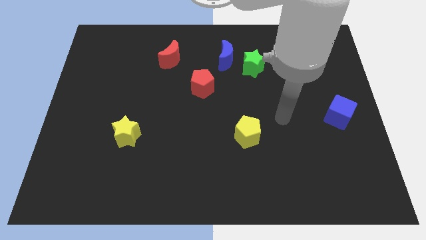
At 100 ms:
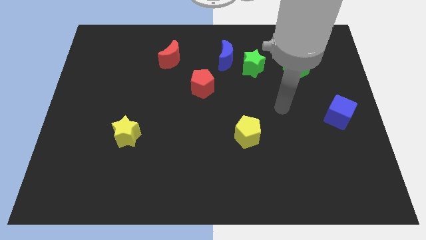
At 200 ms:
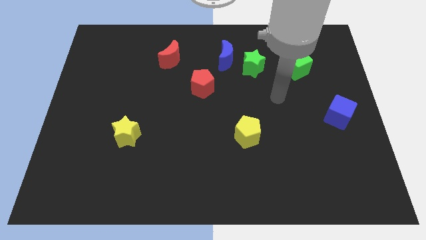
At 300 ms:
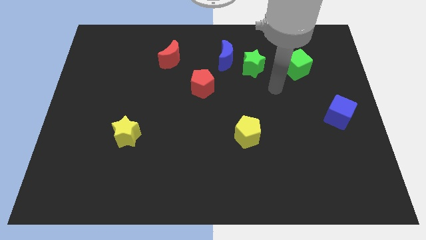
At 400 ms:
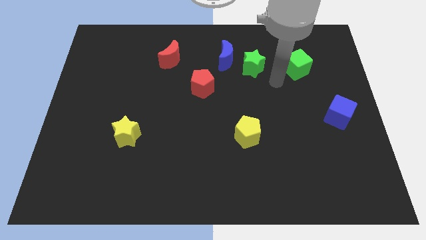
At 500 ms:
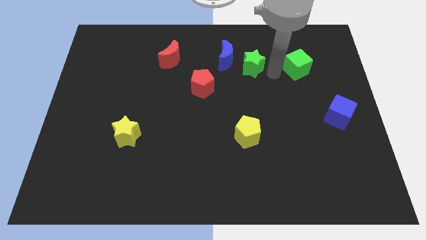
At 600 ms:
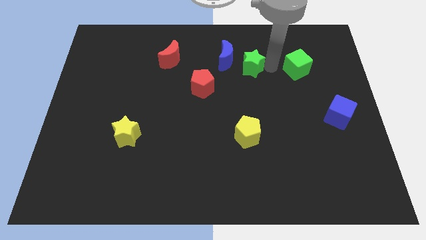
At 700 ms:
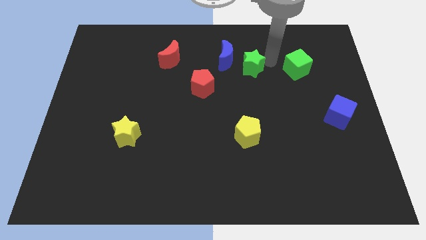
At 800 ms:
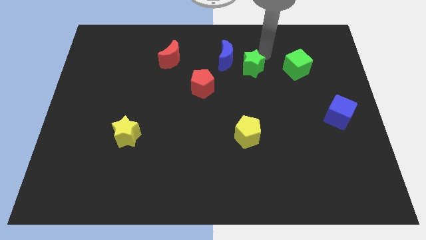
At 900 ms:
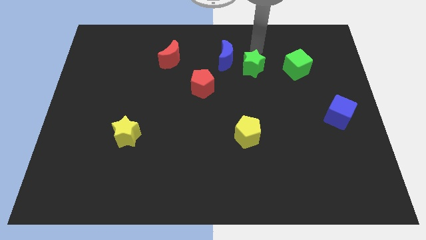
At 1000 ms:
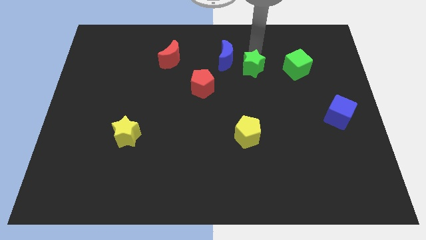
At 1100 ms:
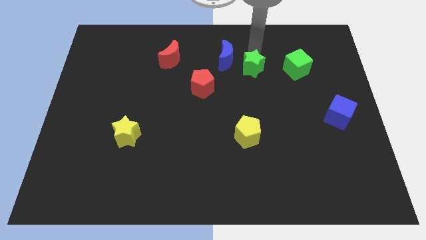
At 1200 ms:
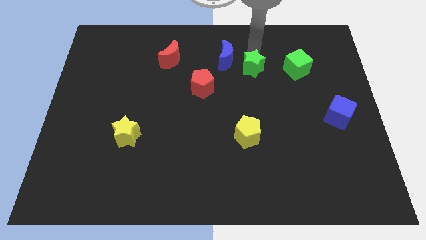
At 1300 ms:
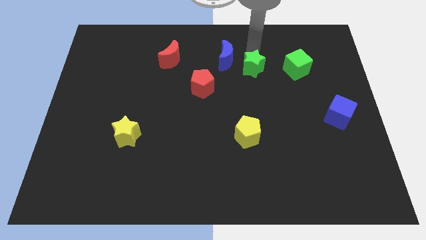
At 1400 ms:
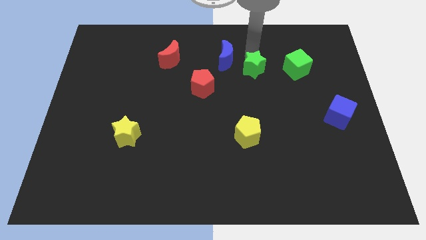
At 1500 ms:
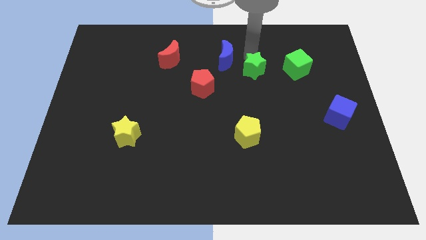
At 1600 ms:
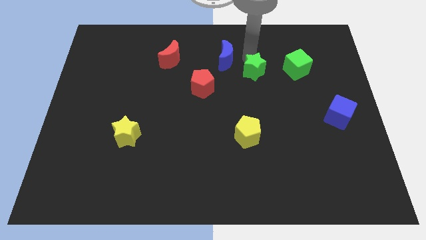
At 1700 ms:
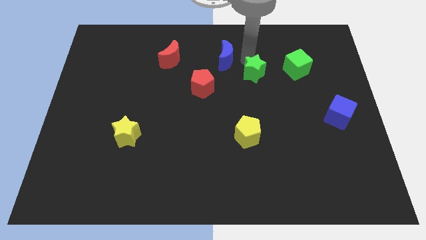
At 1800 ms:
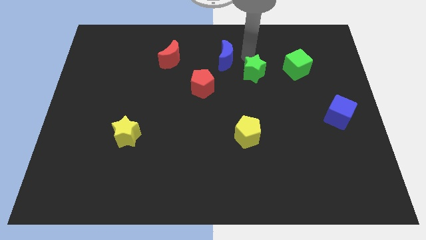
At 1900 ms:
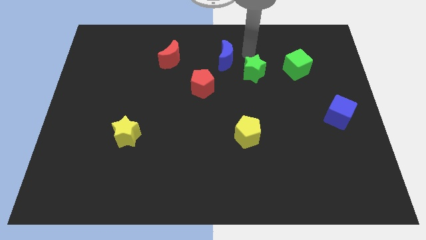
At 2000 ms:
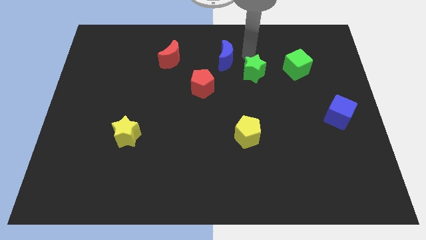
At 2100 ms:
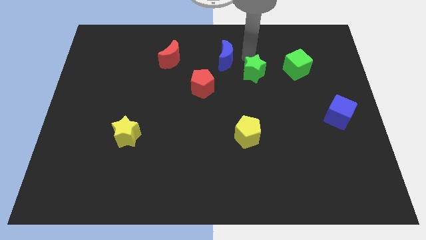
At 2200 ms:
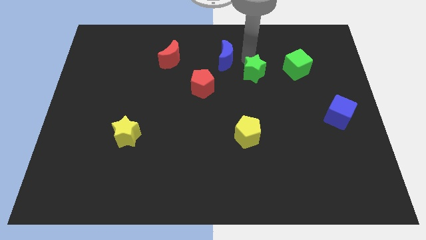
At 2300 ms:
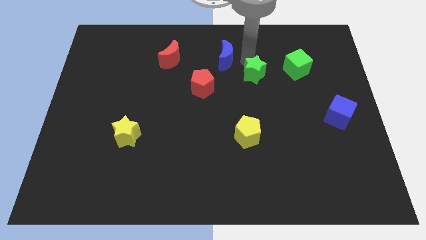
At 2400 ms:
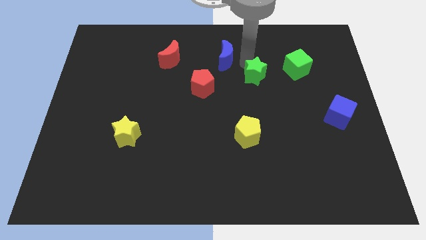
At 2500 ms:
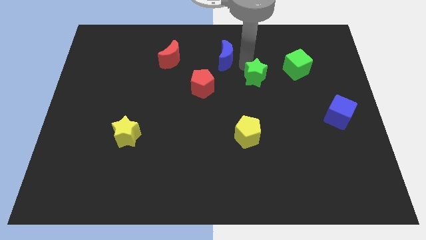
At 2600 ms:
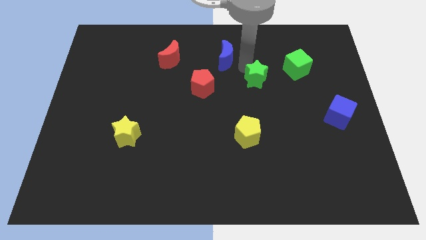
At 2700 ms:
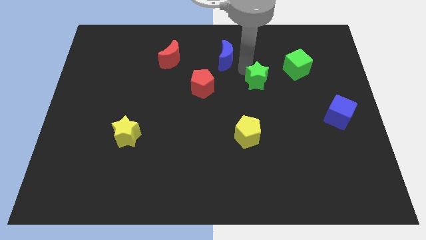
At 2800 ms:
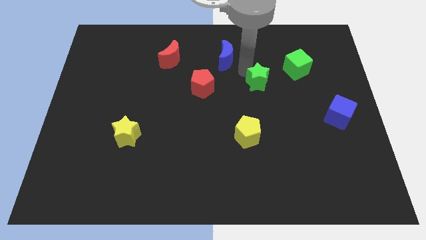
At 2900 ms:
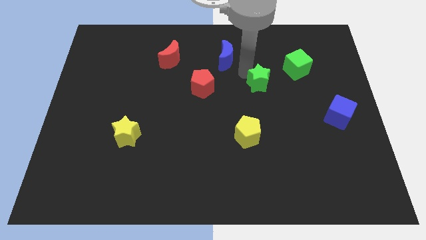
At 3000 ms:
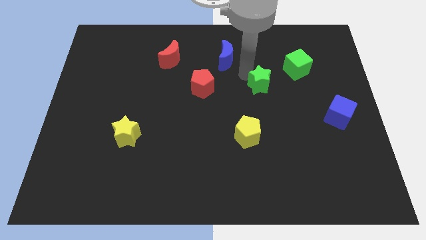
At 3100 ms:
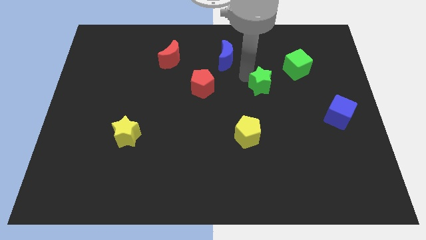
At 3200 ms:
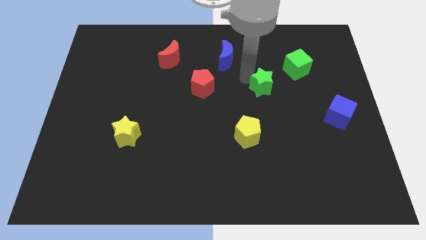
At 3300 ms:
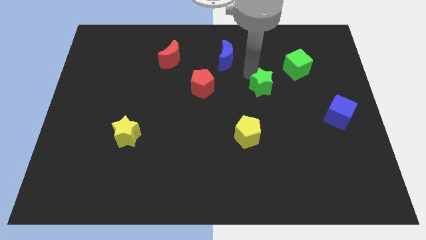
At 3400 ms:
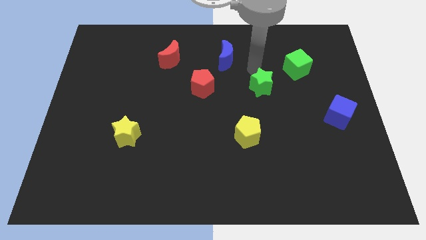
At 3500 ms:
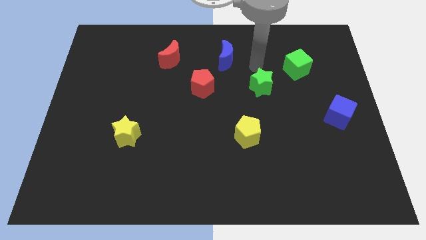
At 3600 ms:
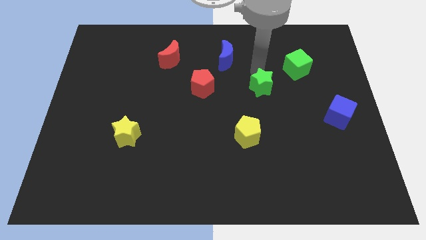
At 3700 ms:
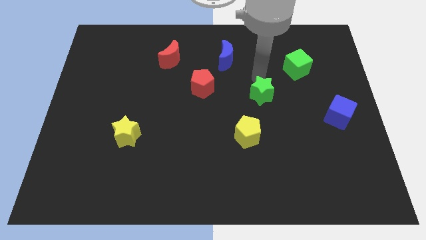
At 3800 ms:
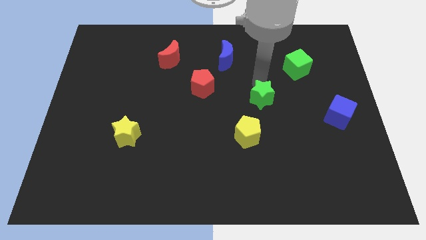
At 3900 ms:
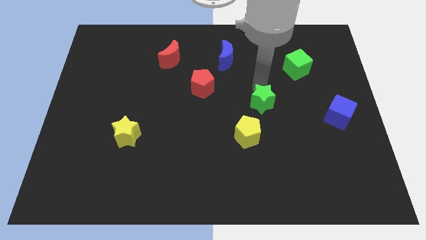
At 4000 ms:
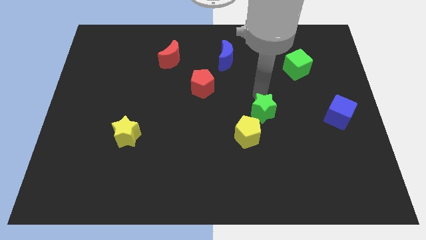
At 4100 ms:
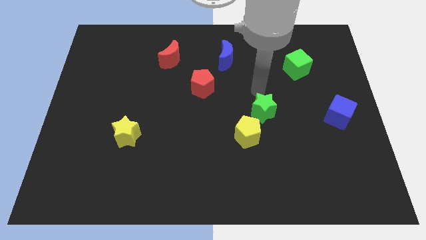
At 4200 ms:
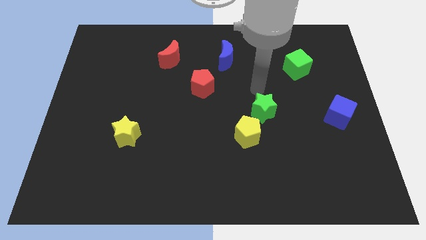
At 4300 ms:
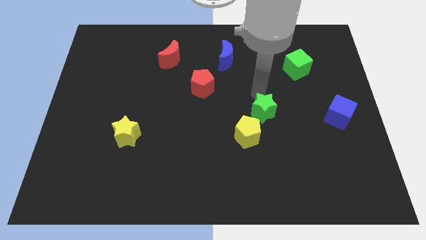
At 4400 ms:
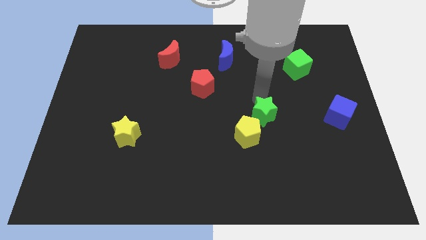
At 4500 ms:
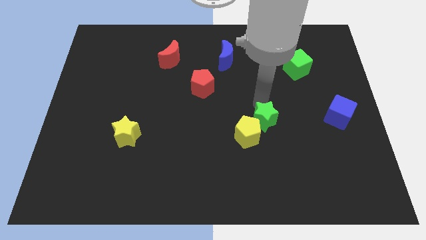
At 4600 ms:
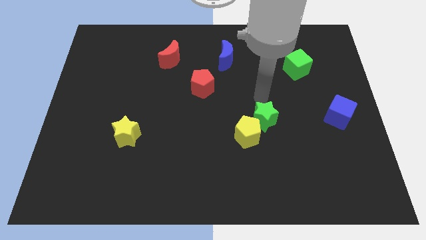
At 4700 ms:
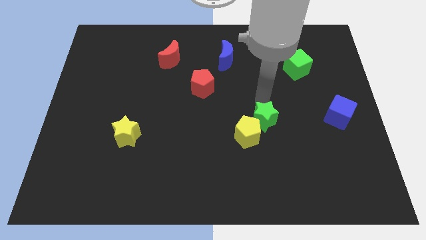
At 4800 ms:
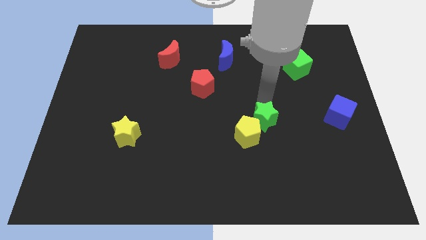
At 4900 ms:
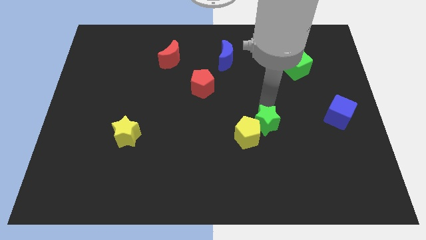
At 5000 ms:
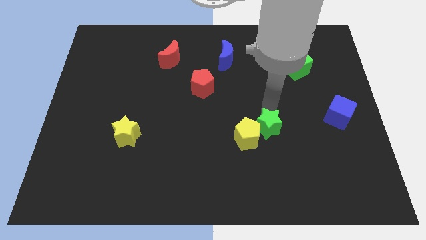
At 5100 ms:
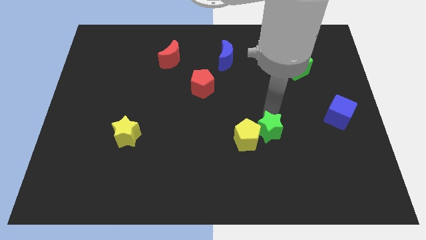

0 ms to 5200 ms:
slide the green star down

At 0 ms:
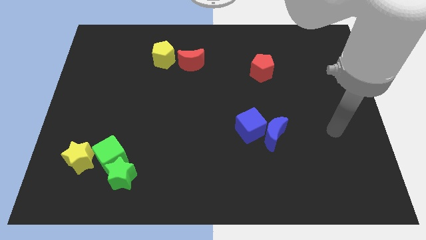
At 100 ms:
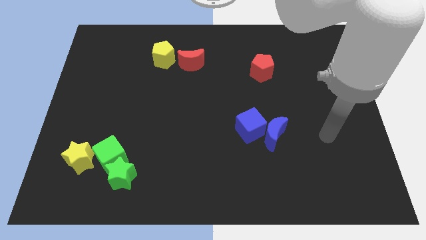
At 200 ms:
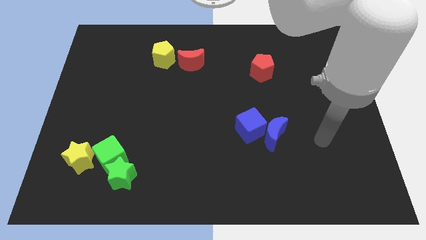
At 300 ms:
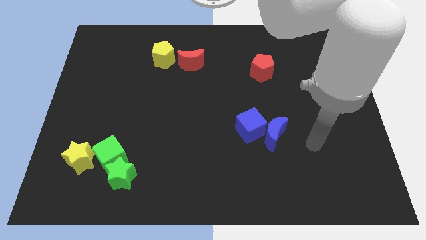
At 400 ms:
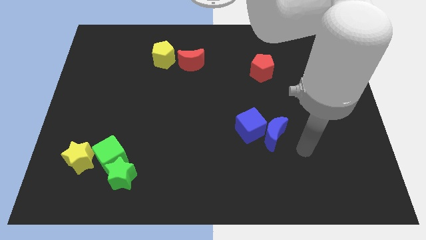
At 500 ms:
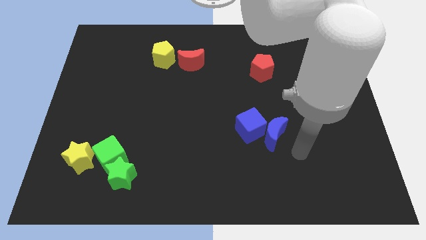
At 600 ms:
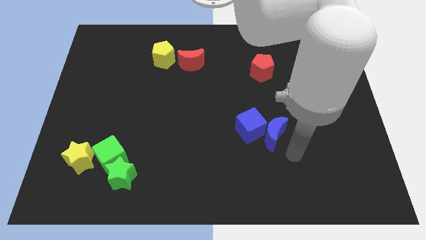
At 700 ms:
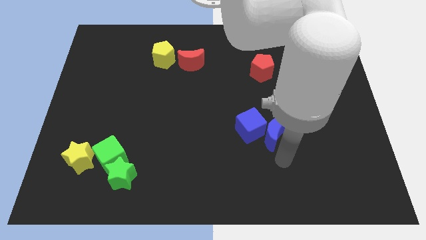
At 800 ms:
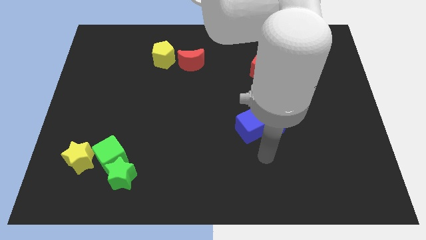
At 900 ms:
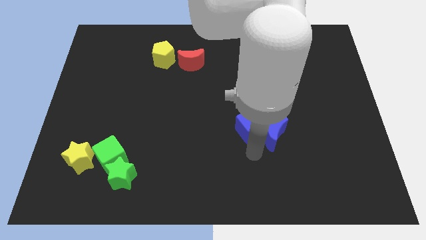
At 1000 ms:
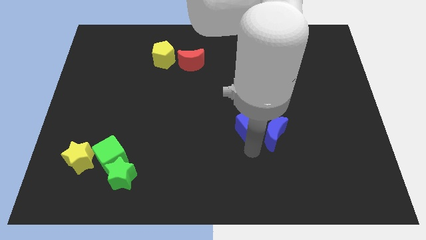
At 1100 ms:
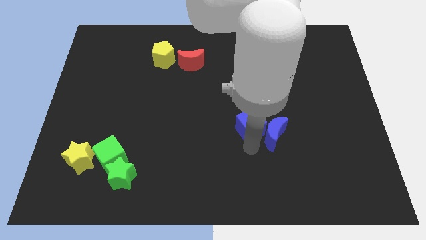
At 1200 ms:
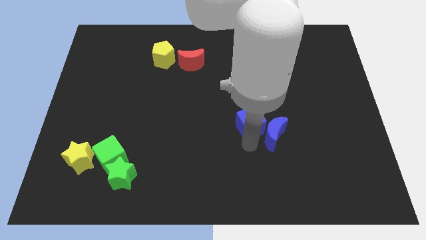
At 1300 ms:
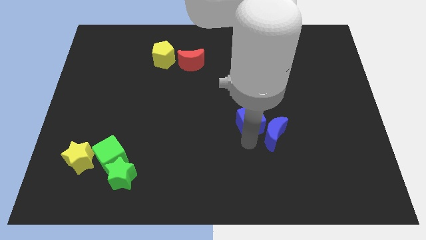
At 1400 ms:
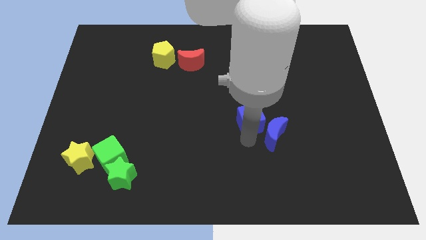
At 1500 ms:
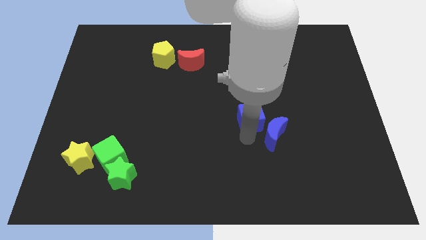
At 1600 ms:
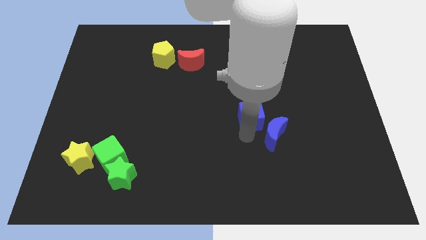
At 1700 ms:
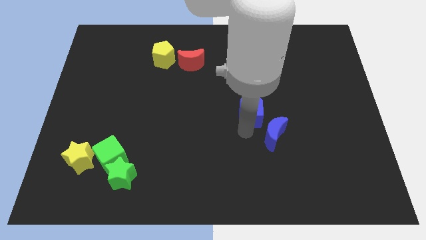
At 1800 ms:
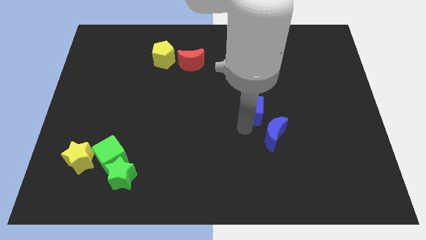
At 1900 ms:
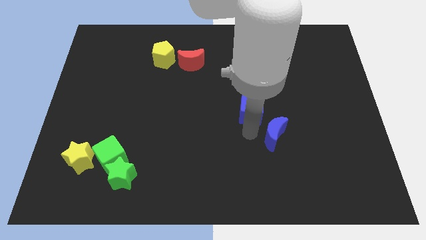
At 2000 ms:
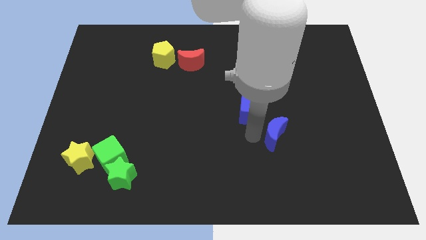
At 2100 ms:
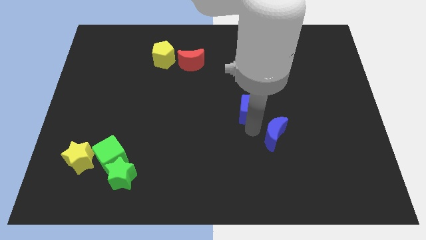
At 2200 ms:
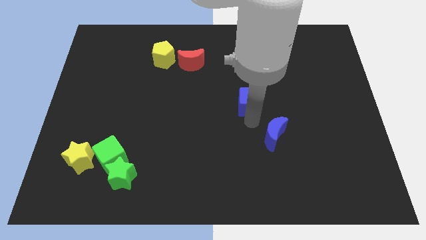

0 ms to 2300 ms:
slide the blue cube upwards somewhat

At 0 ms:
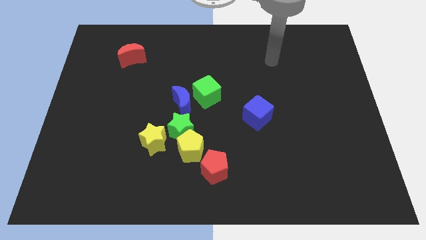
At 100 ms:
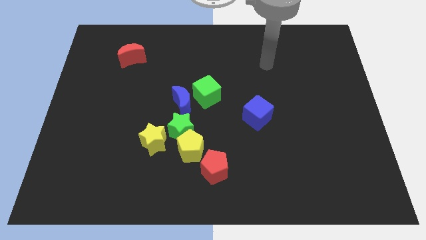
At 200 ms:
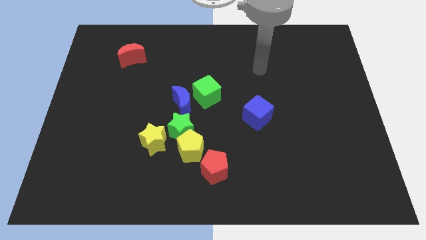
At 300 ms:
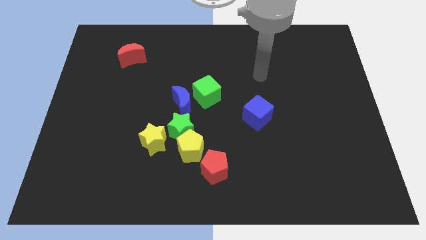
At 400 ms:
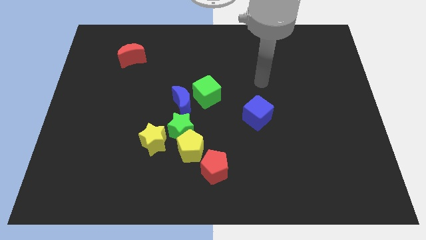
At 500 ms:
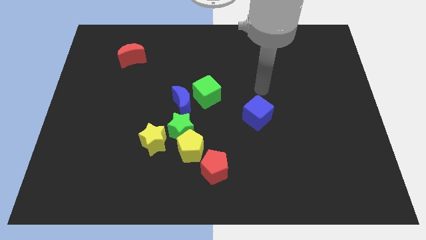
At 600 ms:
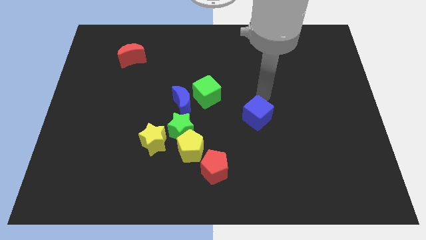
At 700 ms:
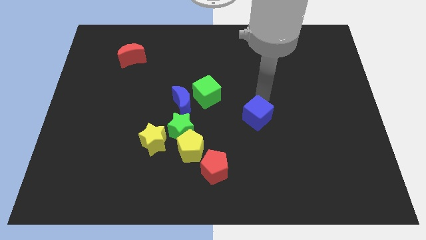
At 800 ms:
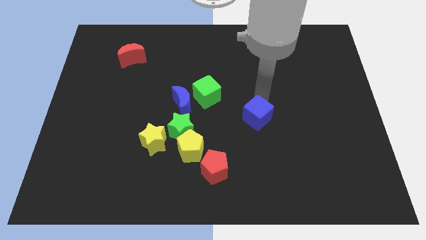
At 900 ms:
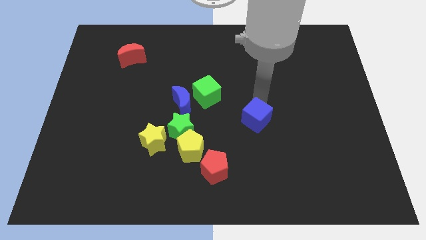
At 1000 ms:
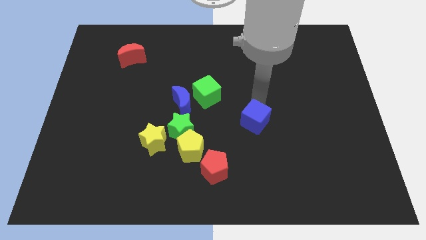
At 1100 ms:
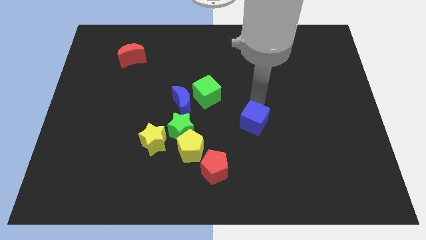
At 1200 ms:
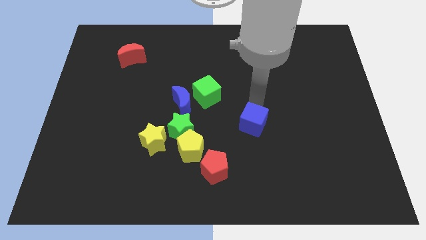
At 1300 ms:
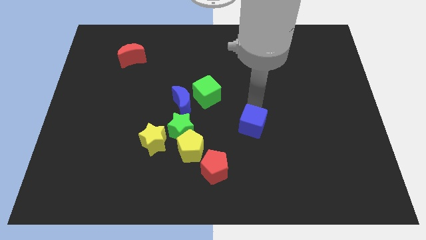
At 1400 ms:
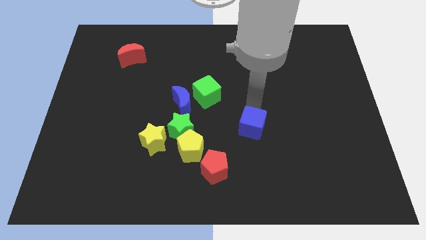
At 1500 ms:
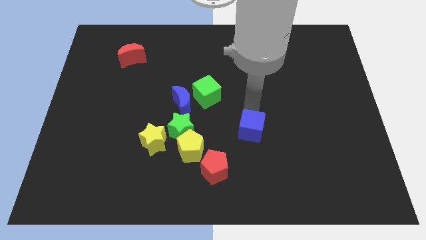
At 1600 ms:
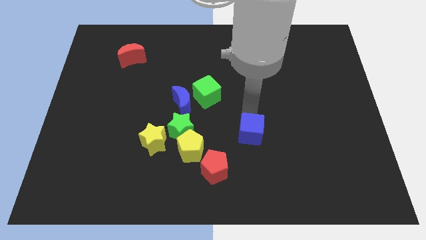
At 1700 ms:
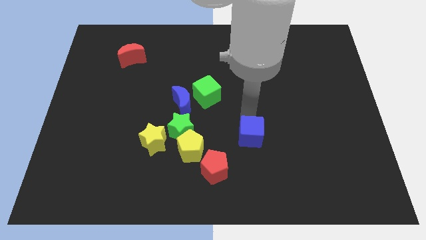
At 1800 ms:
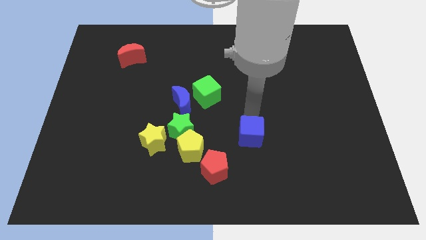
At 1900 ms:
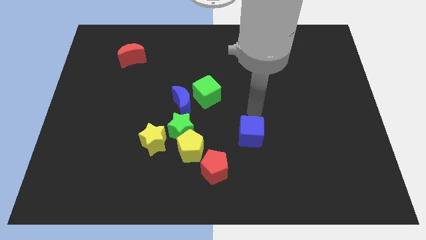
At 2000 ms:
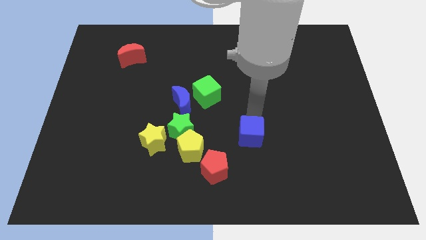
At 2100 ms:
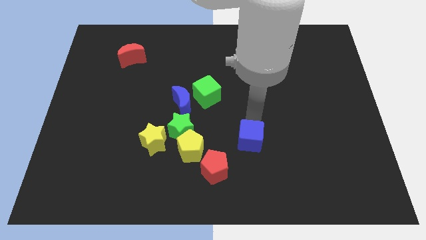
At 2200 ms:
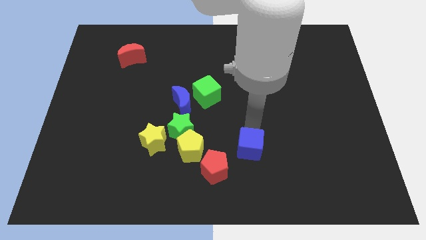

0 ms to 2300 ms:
slide the blue cube downwards and left a little bit
